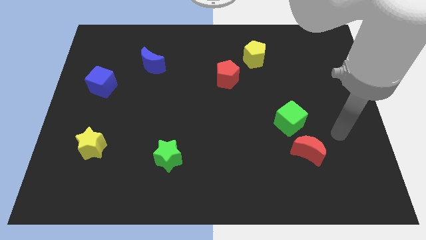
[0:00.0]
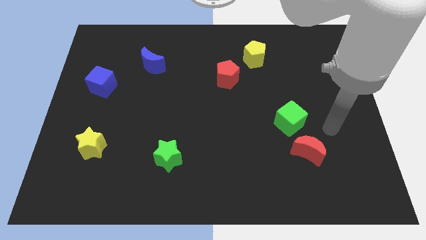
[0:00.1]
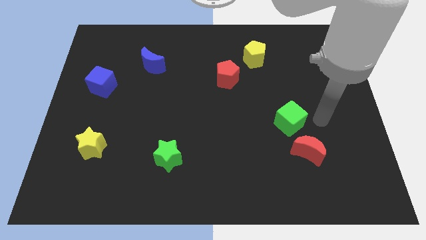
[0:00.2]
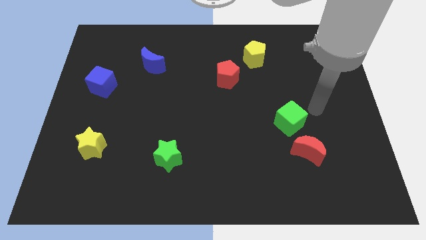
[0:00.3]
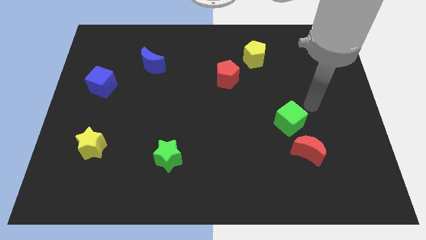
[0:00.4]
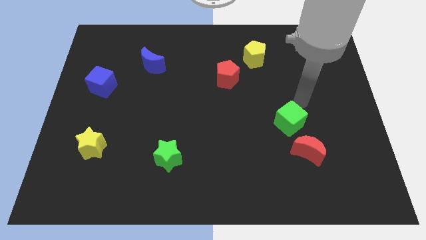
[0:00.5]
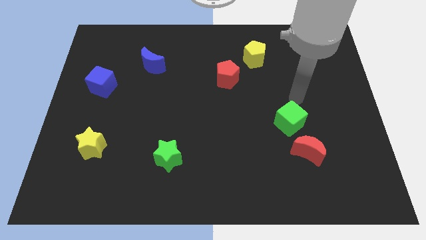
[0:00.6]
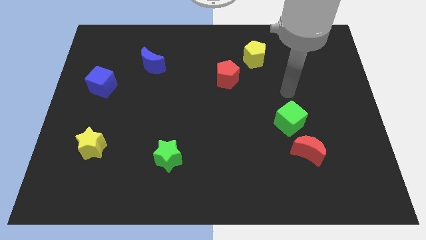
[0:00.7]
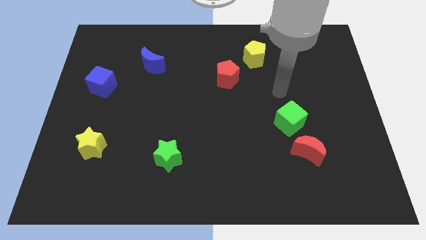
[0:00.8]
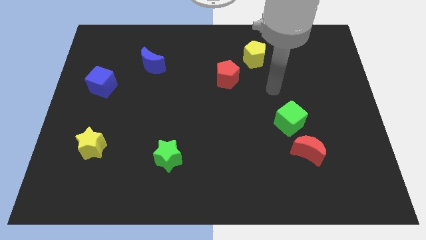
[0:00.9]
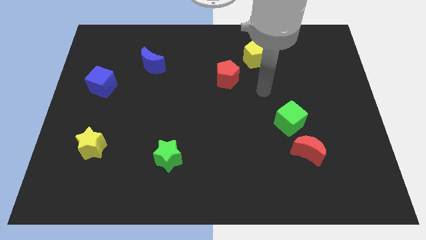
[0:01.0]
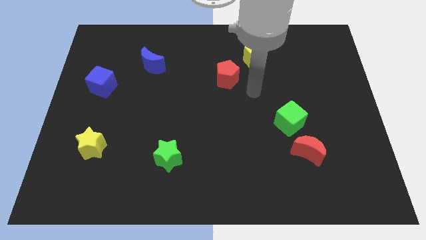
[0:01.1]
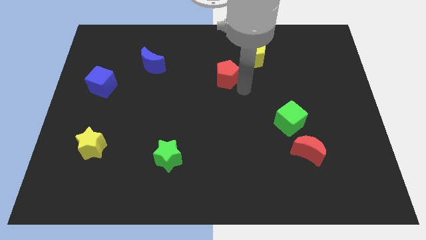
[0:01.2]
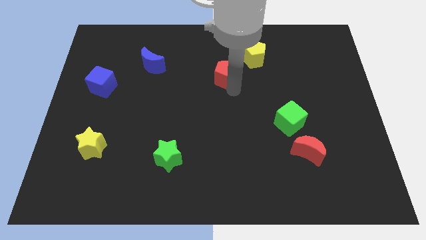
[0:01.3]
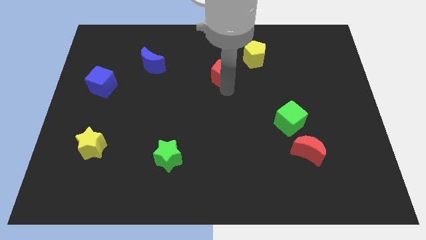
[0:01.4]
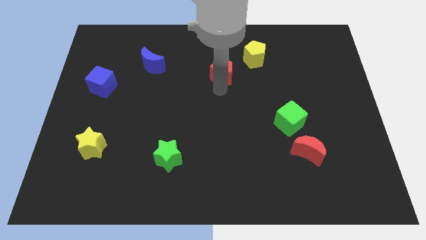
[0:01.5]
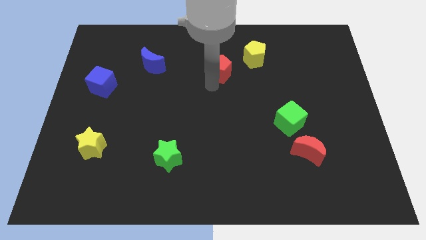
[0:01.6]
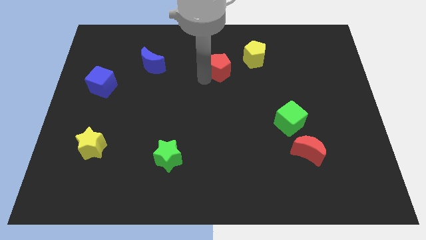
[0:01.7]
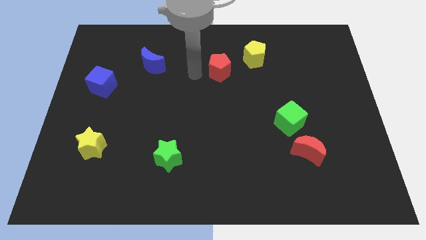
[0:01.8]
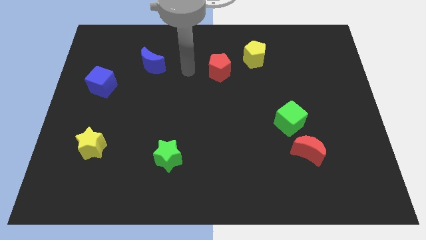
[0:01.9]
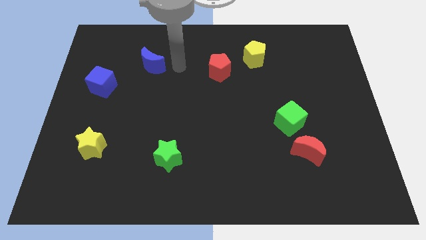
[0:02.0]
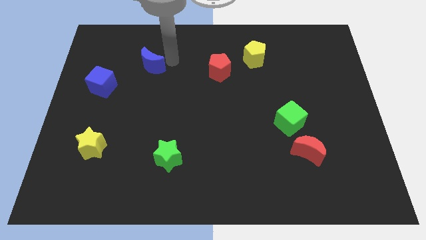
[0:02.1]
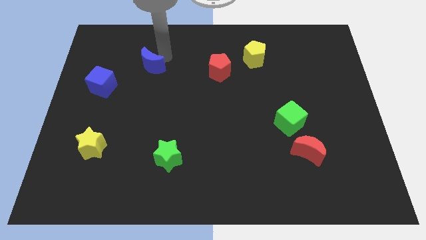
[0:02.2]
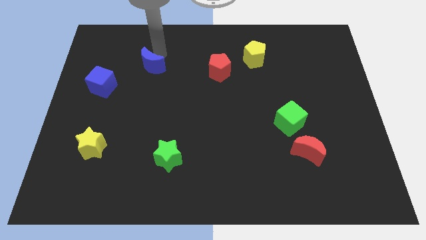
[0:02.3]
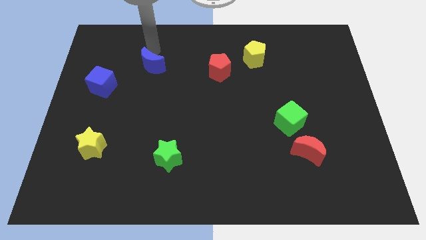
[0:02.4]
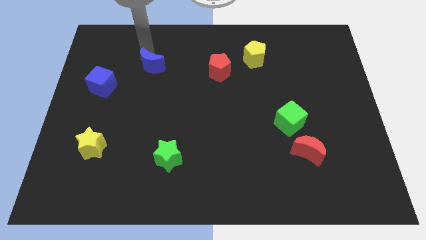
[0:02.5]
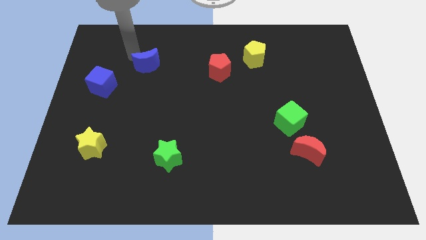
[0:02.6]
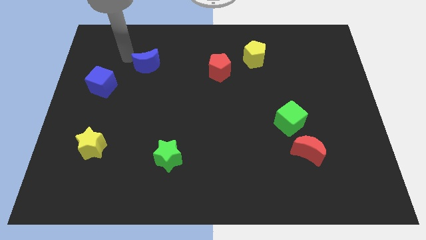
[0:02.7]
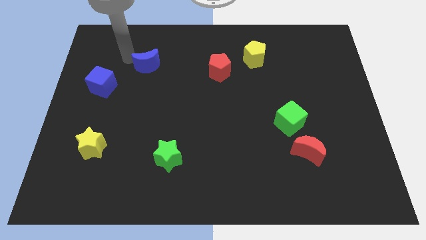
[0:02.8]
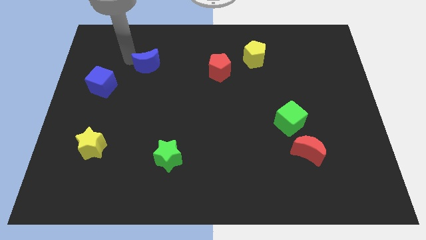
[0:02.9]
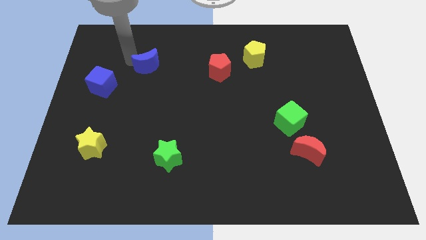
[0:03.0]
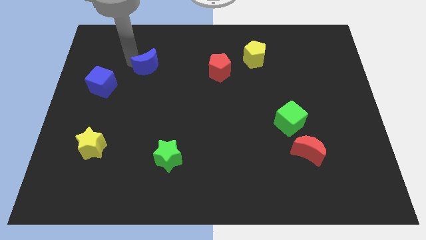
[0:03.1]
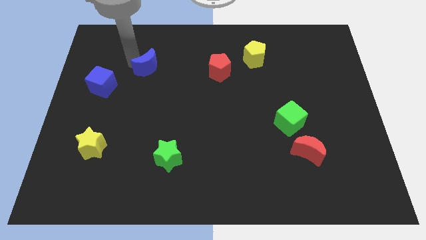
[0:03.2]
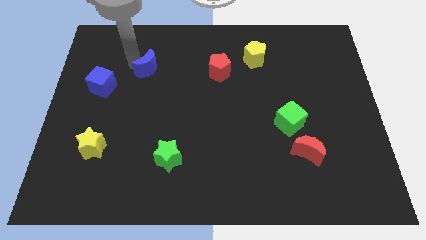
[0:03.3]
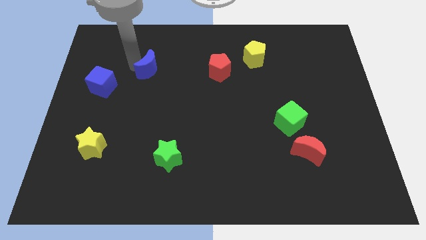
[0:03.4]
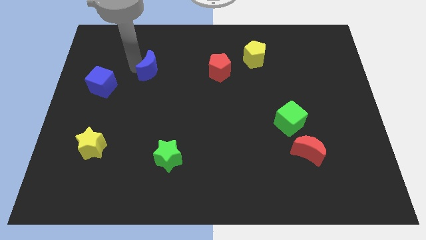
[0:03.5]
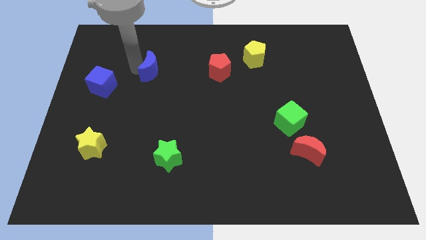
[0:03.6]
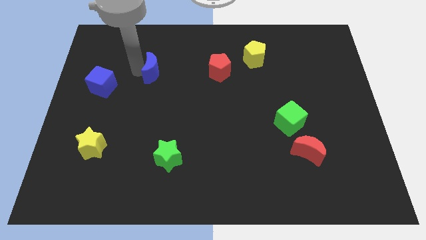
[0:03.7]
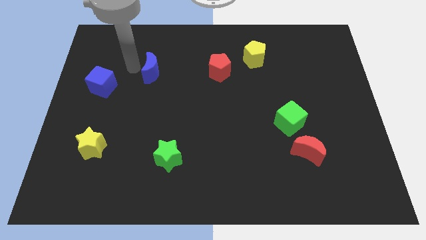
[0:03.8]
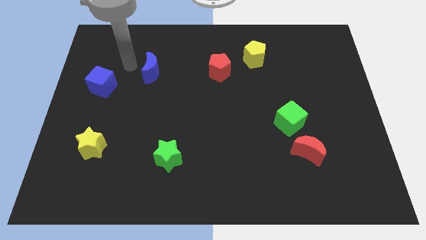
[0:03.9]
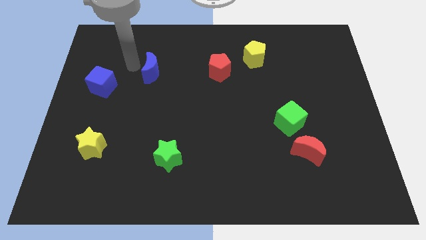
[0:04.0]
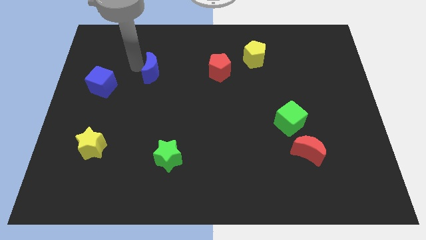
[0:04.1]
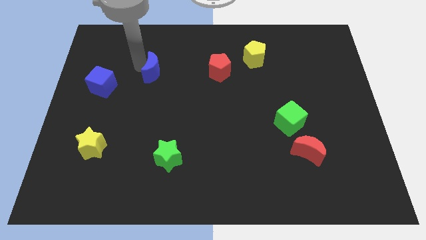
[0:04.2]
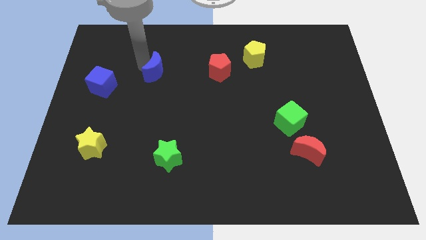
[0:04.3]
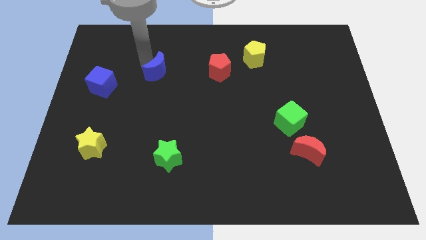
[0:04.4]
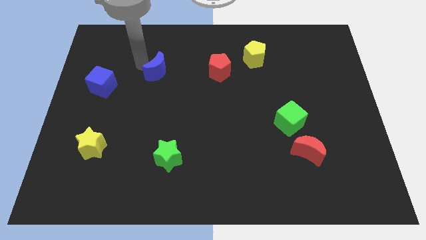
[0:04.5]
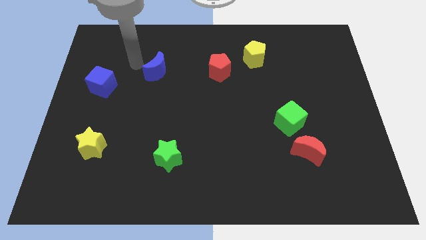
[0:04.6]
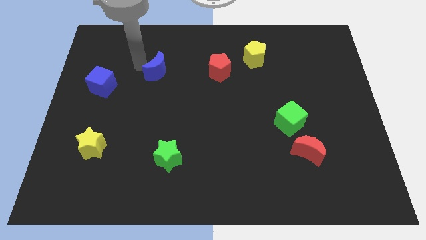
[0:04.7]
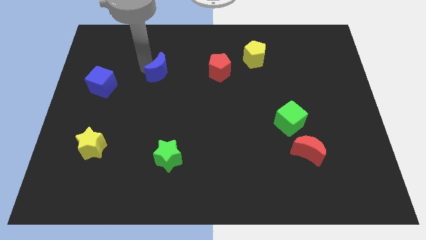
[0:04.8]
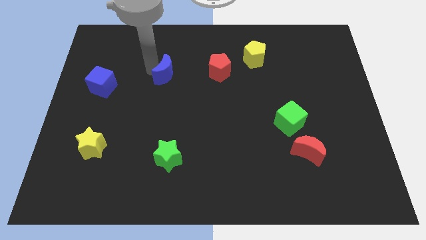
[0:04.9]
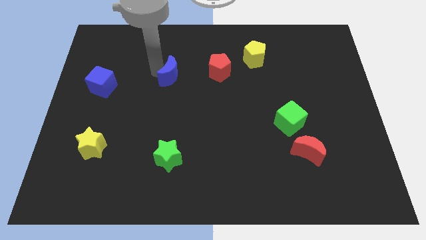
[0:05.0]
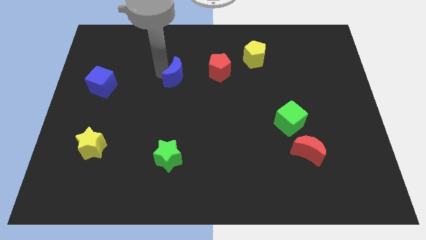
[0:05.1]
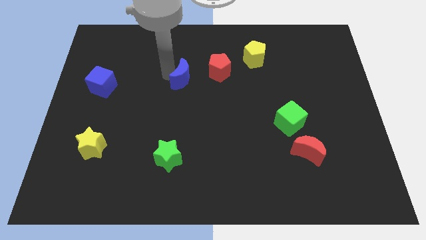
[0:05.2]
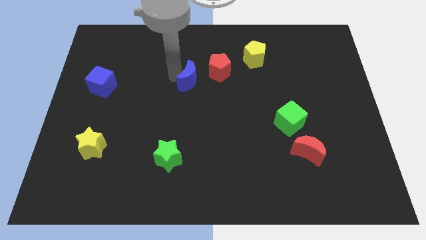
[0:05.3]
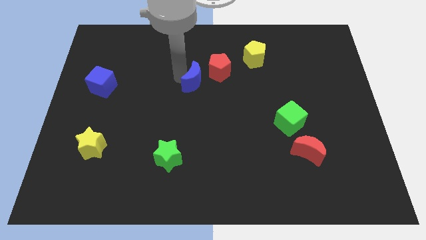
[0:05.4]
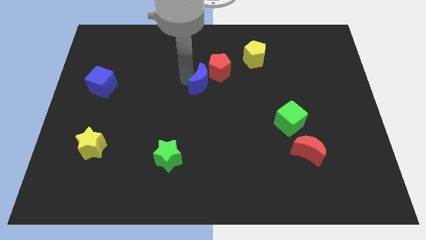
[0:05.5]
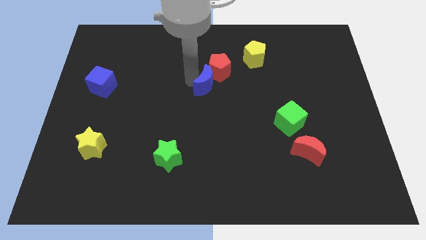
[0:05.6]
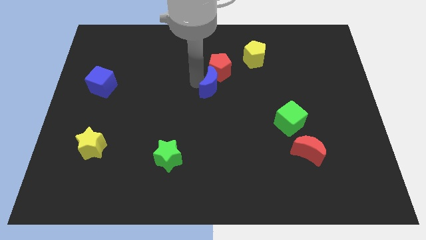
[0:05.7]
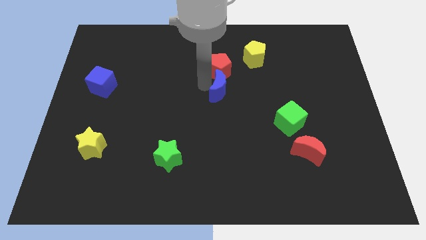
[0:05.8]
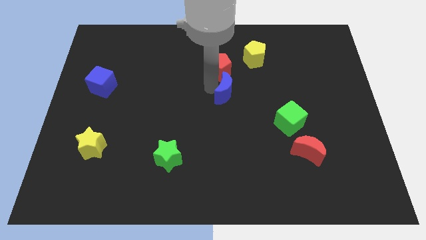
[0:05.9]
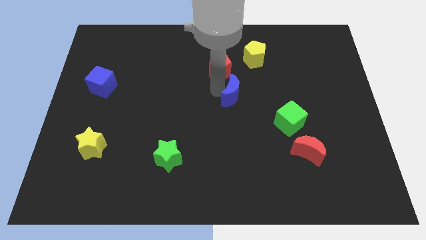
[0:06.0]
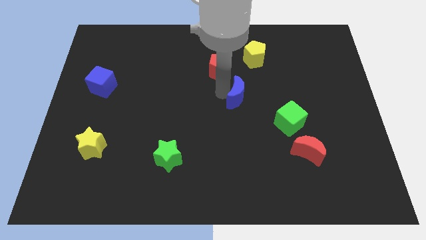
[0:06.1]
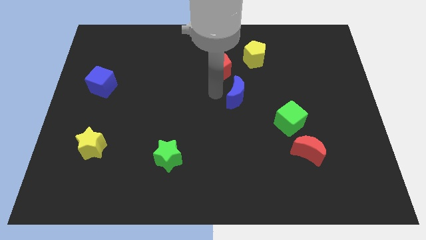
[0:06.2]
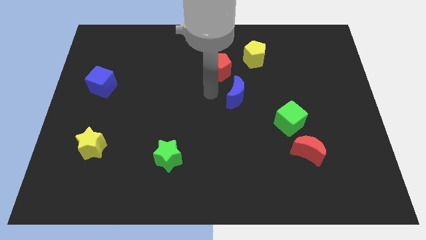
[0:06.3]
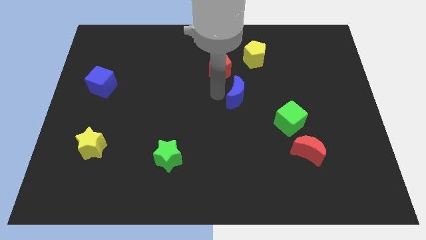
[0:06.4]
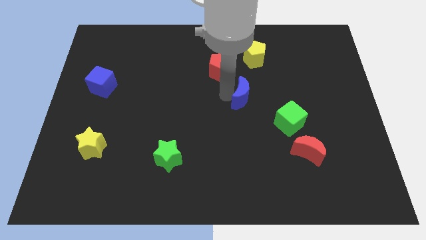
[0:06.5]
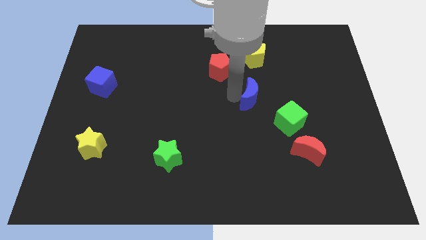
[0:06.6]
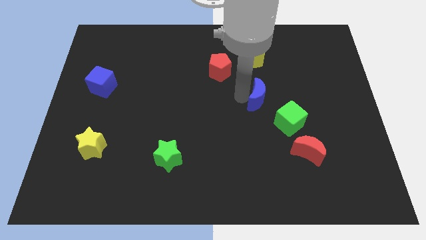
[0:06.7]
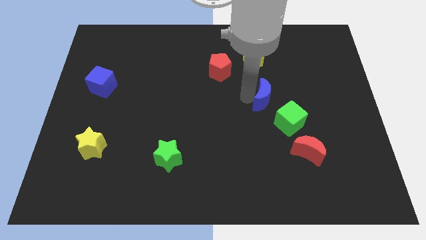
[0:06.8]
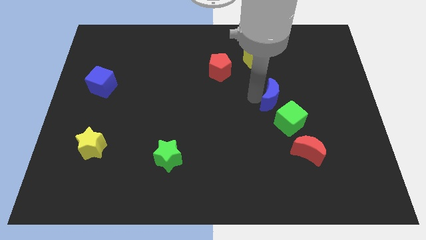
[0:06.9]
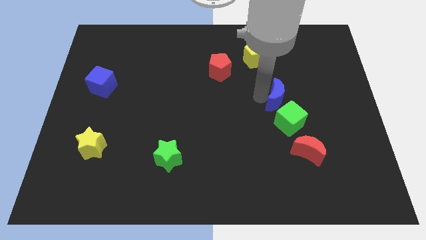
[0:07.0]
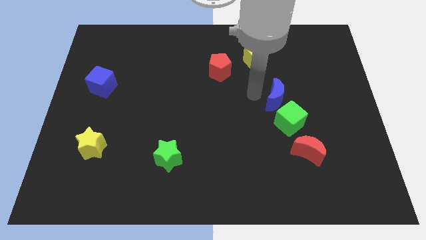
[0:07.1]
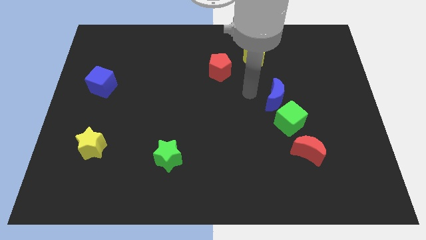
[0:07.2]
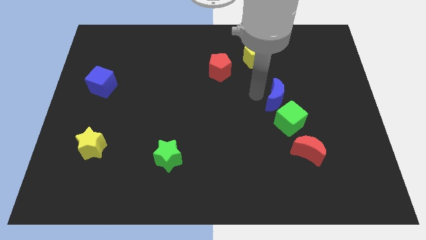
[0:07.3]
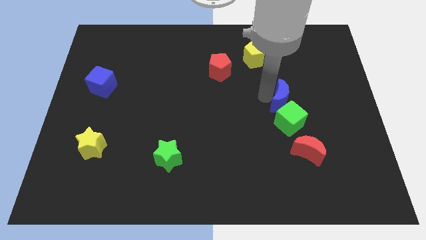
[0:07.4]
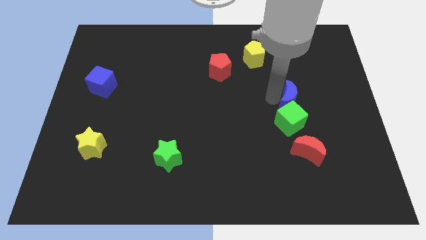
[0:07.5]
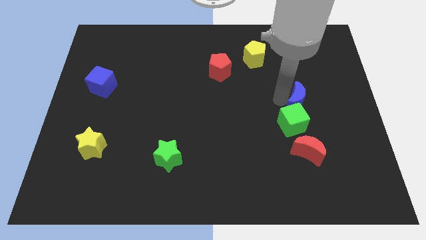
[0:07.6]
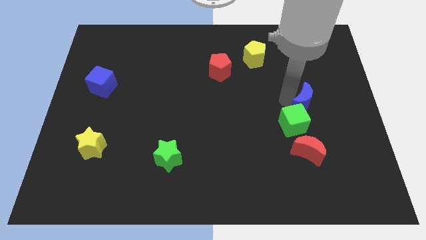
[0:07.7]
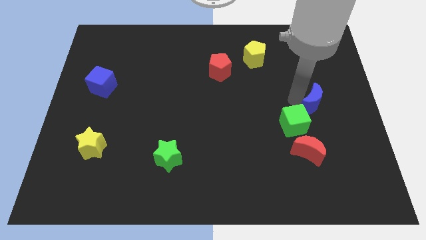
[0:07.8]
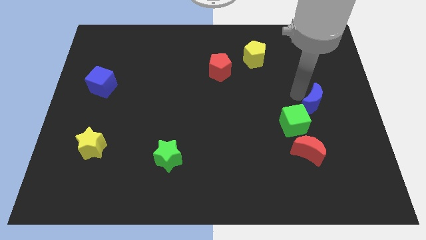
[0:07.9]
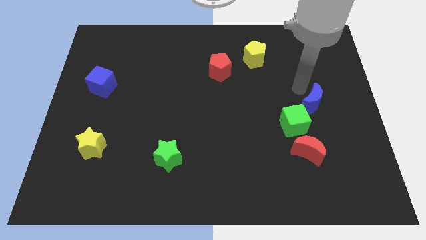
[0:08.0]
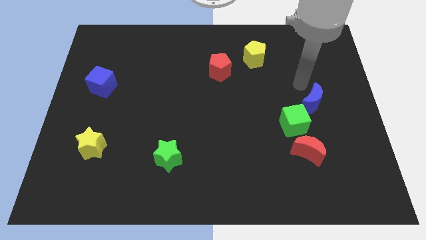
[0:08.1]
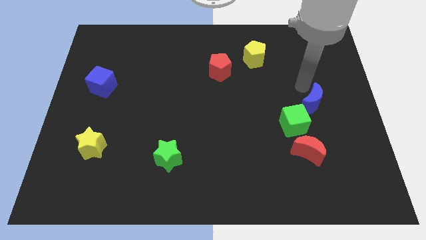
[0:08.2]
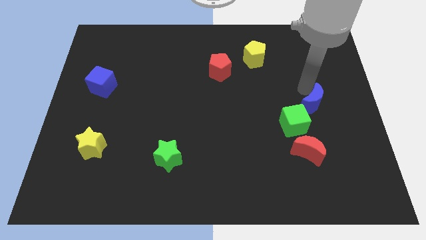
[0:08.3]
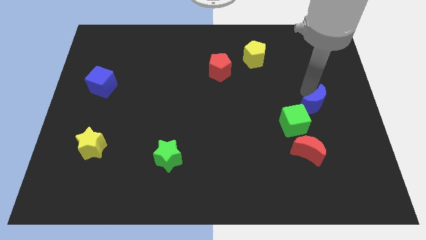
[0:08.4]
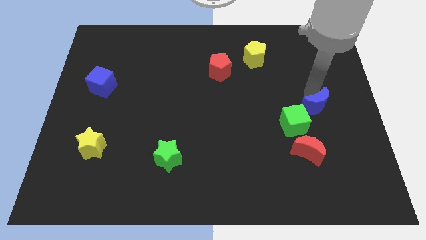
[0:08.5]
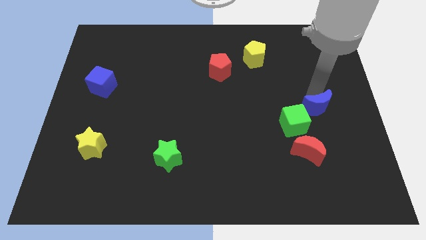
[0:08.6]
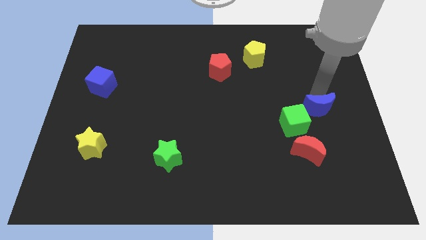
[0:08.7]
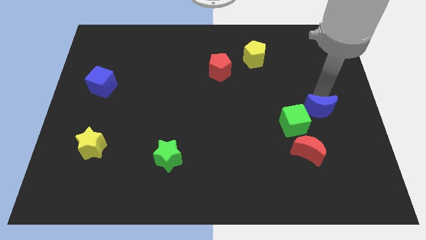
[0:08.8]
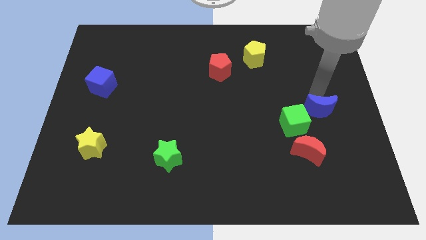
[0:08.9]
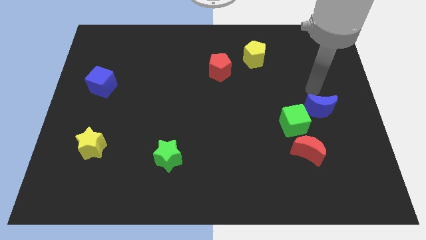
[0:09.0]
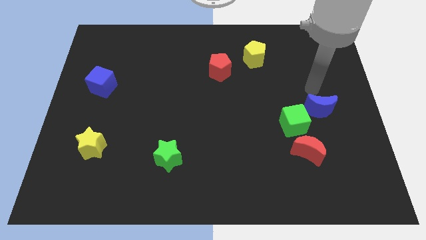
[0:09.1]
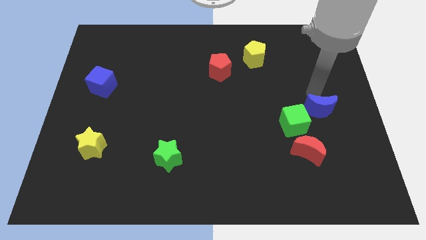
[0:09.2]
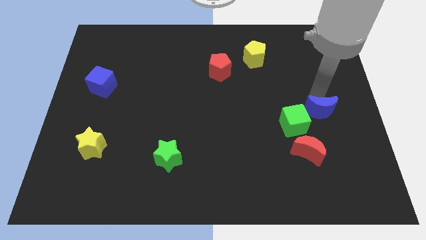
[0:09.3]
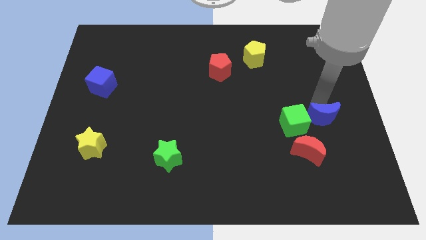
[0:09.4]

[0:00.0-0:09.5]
slide the blue moon diagonally up and to the right of the red moon
